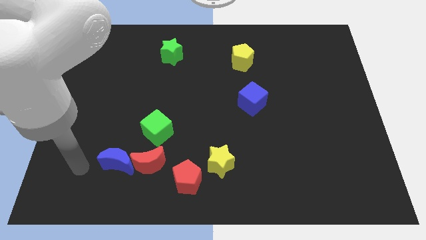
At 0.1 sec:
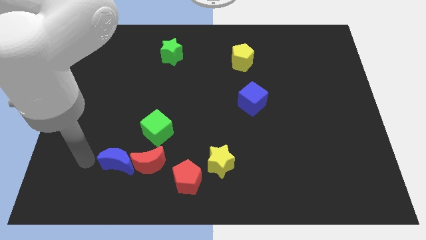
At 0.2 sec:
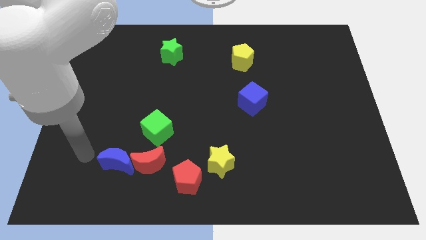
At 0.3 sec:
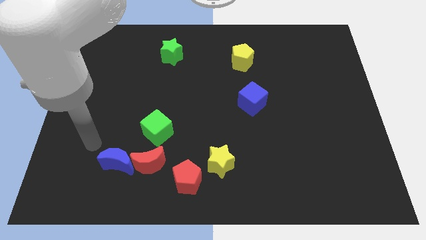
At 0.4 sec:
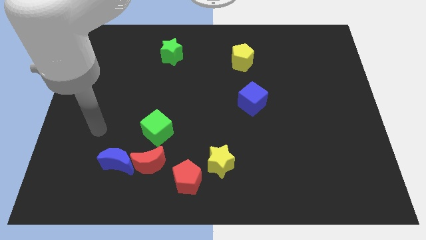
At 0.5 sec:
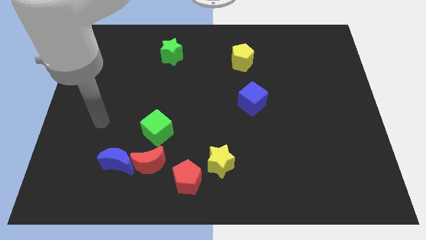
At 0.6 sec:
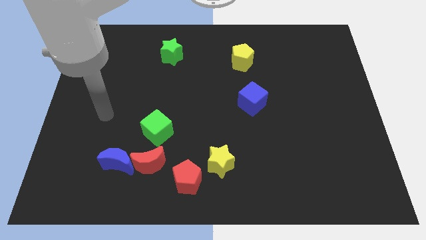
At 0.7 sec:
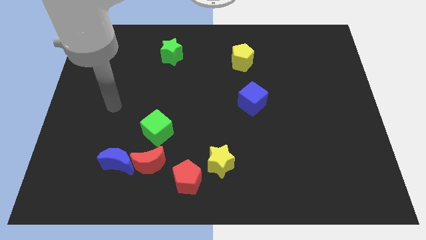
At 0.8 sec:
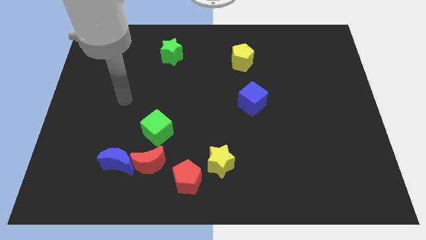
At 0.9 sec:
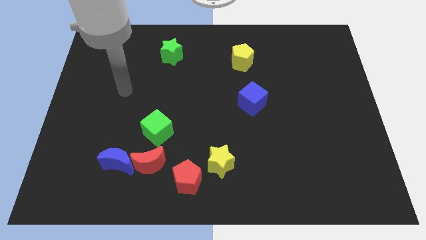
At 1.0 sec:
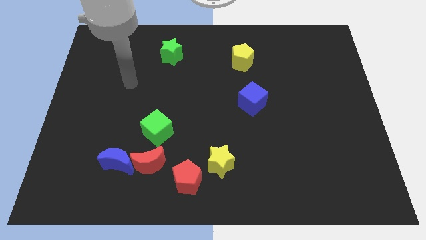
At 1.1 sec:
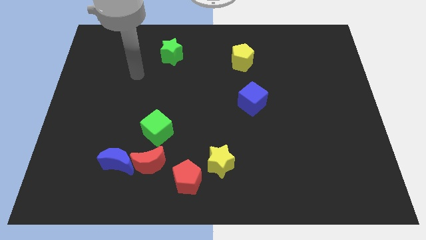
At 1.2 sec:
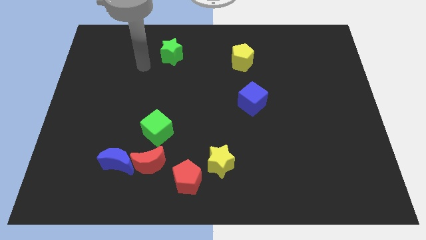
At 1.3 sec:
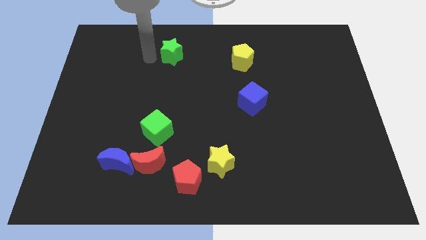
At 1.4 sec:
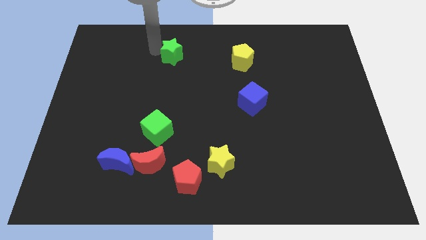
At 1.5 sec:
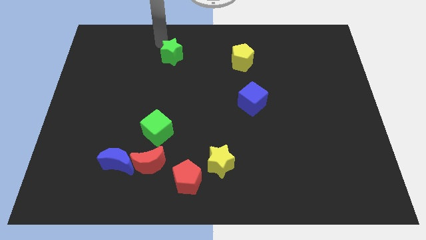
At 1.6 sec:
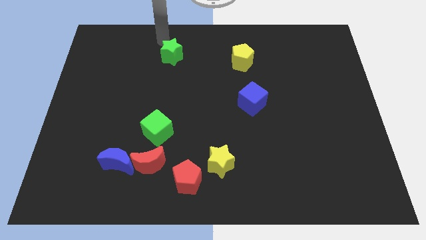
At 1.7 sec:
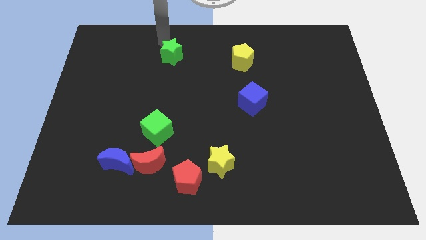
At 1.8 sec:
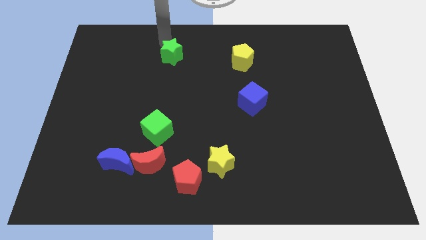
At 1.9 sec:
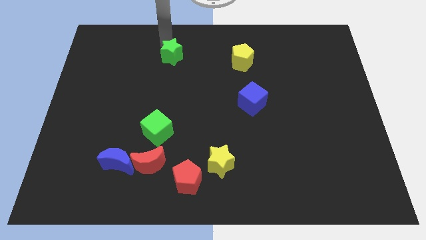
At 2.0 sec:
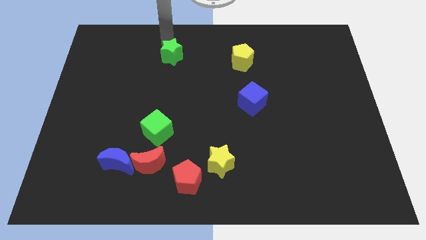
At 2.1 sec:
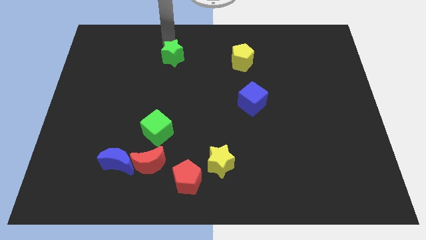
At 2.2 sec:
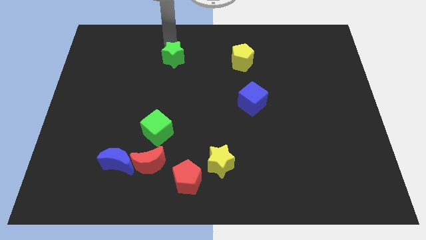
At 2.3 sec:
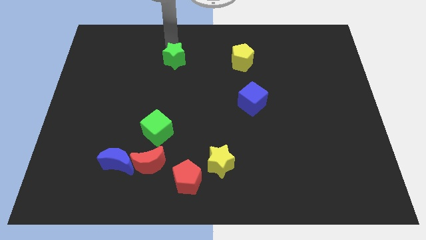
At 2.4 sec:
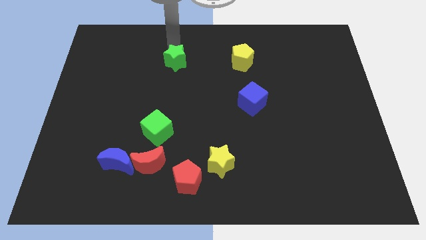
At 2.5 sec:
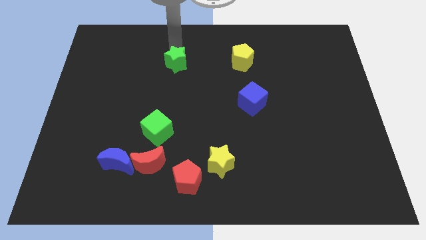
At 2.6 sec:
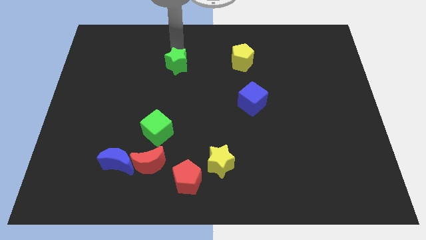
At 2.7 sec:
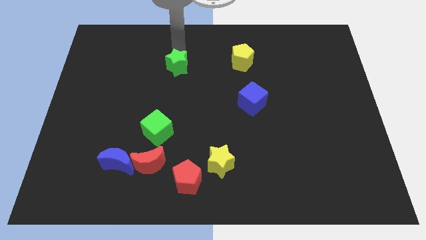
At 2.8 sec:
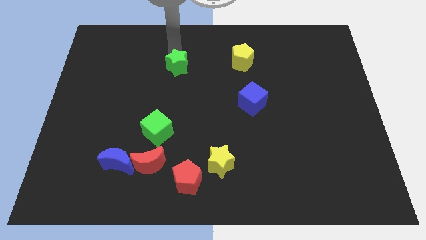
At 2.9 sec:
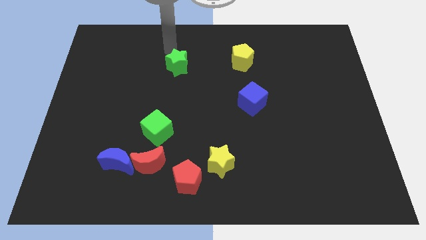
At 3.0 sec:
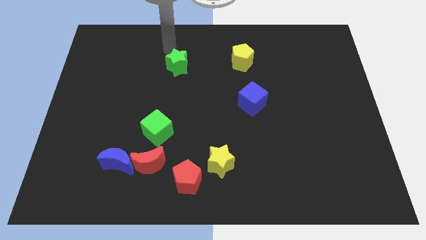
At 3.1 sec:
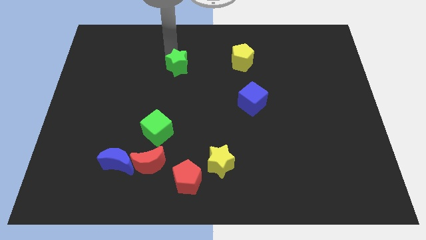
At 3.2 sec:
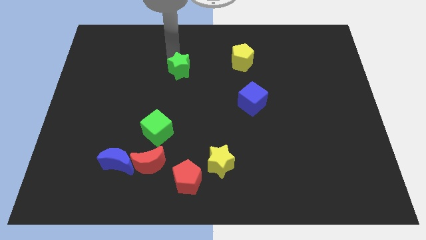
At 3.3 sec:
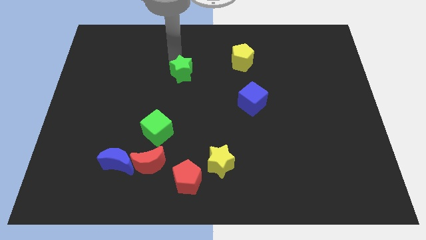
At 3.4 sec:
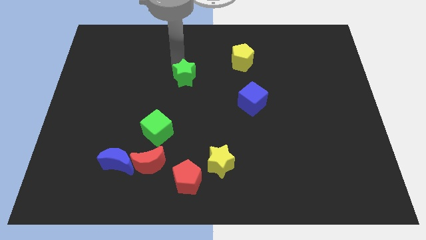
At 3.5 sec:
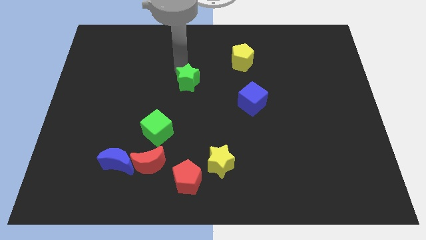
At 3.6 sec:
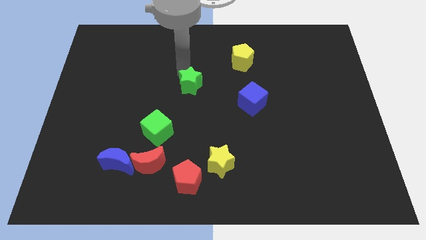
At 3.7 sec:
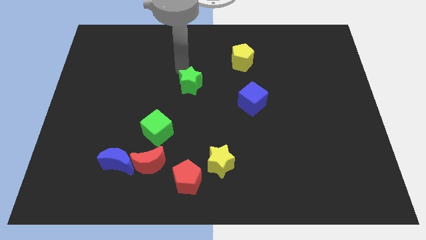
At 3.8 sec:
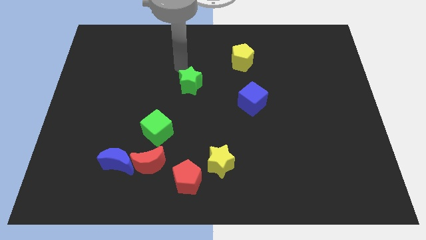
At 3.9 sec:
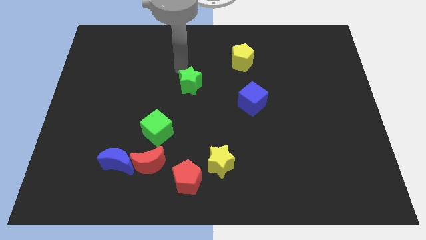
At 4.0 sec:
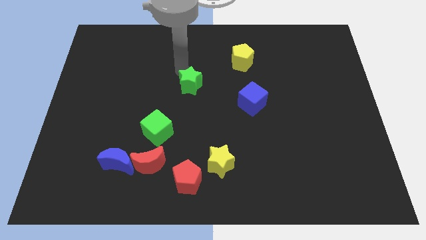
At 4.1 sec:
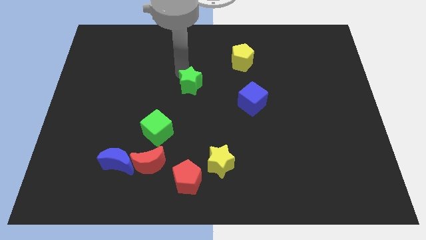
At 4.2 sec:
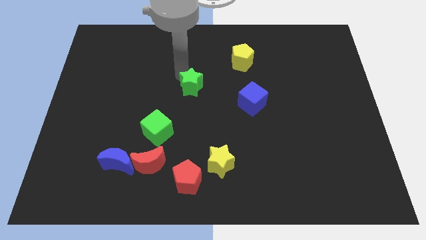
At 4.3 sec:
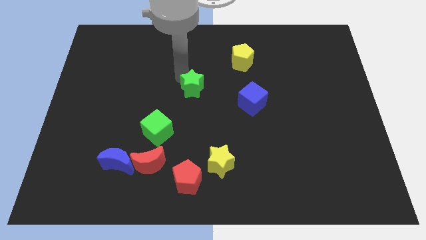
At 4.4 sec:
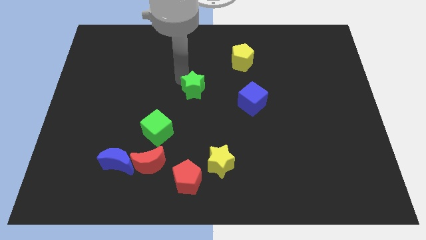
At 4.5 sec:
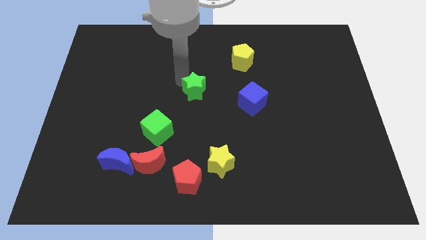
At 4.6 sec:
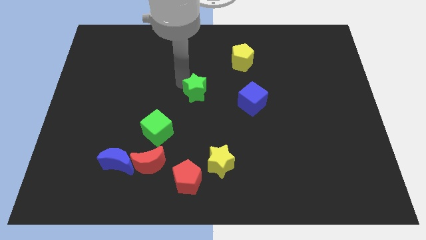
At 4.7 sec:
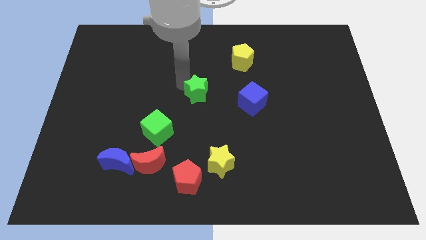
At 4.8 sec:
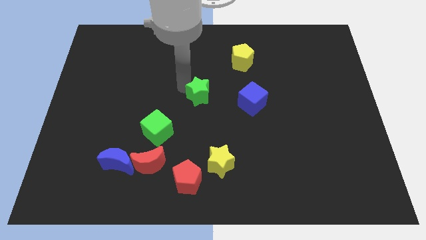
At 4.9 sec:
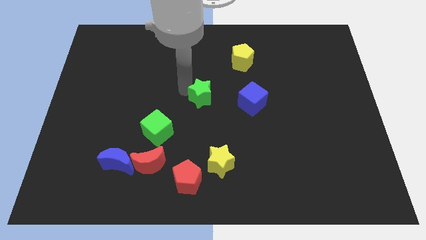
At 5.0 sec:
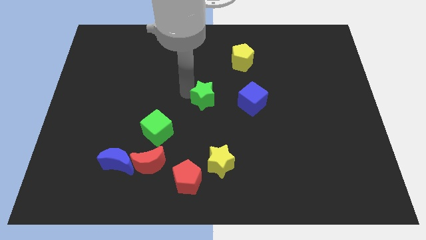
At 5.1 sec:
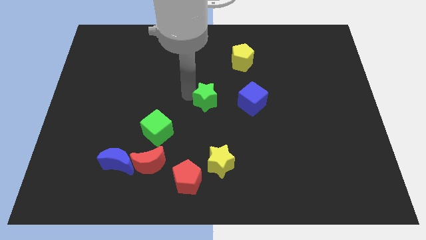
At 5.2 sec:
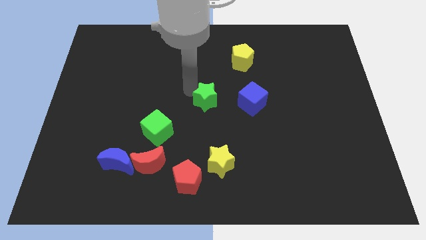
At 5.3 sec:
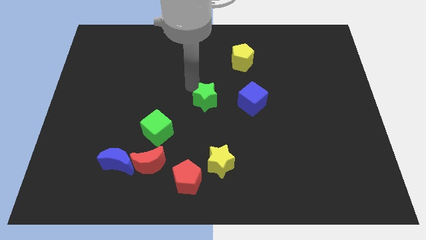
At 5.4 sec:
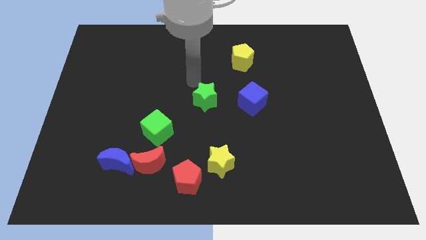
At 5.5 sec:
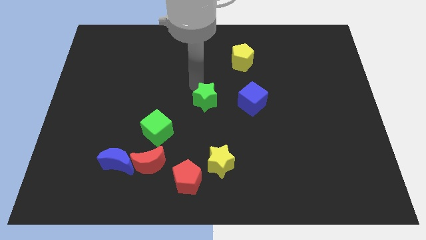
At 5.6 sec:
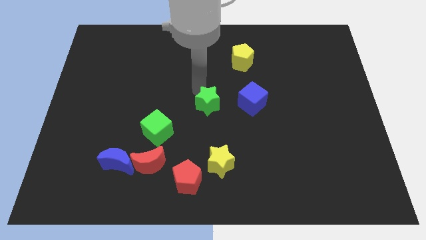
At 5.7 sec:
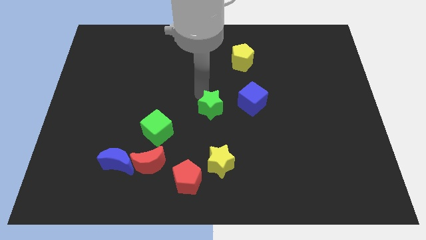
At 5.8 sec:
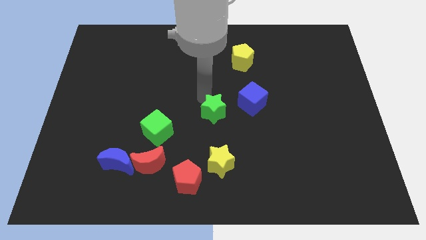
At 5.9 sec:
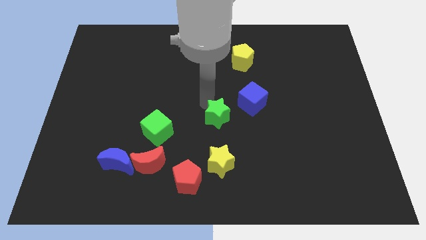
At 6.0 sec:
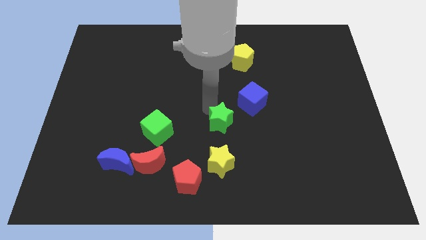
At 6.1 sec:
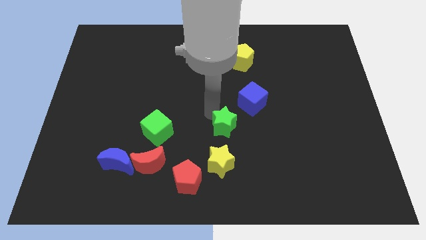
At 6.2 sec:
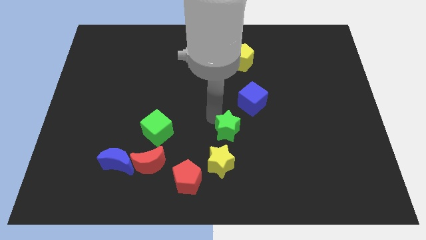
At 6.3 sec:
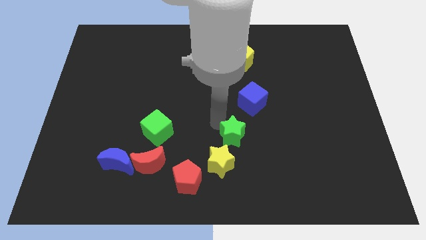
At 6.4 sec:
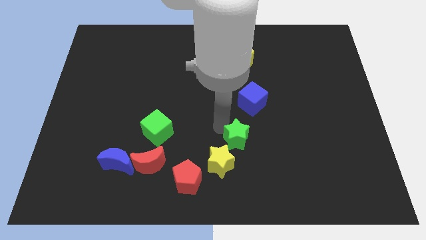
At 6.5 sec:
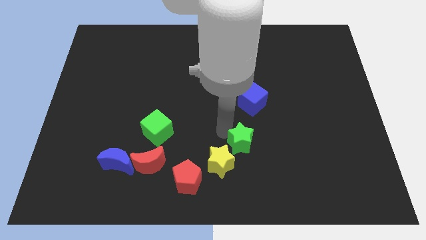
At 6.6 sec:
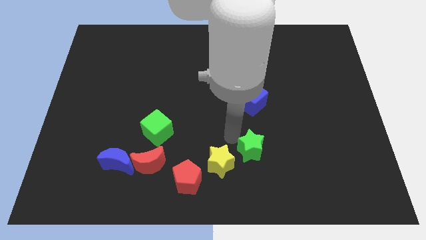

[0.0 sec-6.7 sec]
push the green star right of the yellow star
